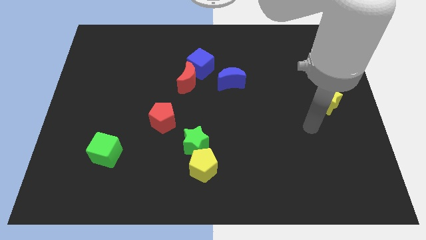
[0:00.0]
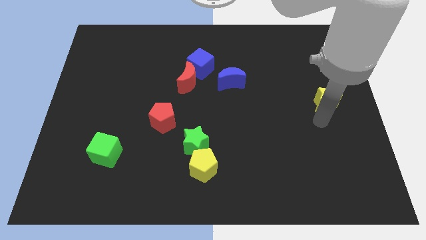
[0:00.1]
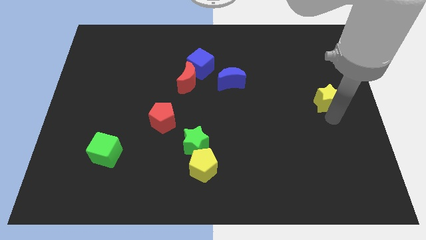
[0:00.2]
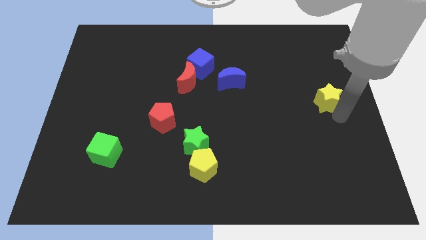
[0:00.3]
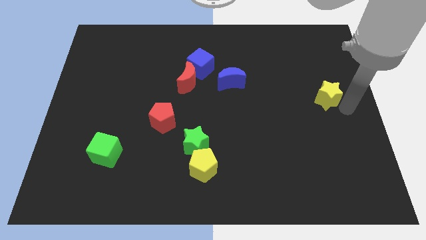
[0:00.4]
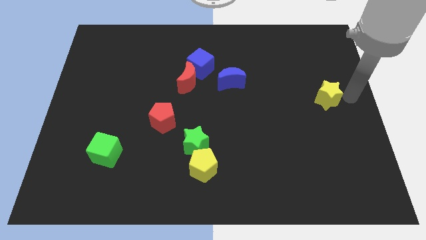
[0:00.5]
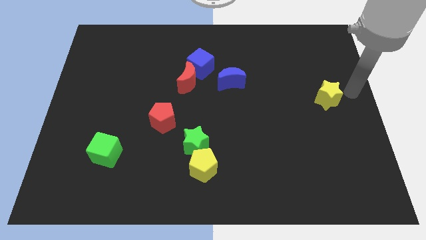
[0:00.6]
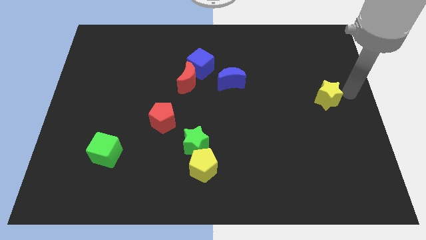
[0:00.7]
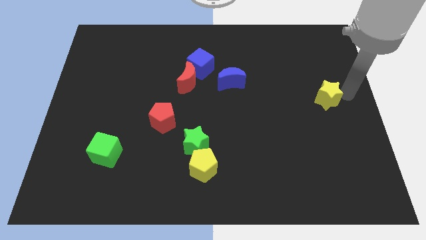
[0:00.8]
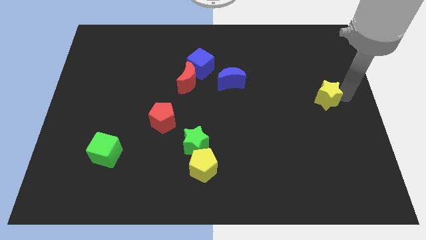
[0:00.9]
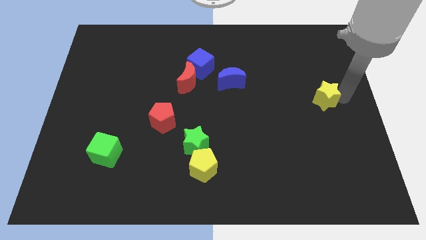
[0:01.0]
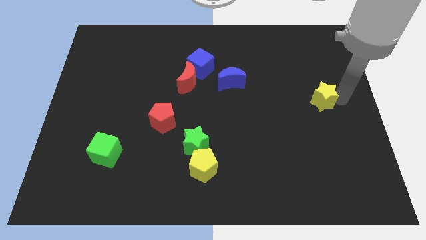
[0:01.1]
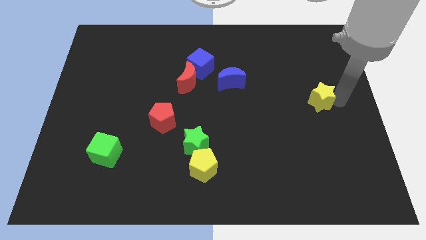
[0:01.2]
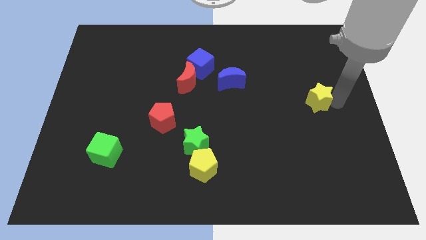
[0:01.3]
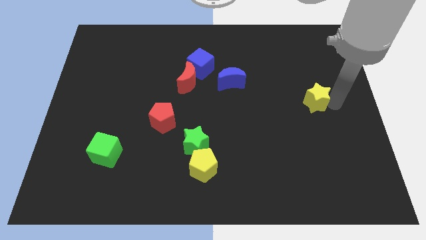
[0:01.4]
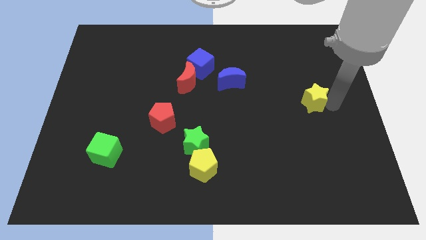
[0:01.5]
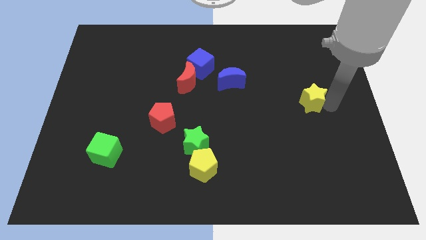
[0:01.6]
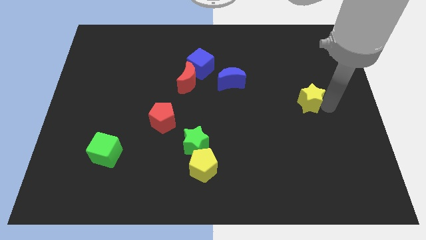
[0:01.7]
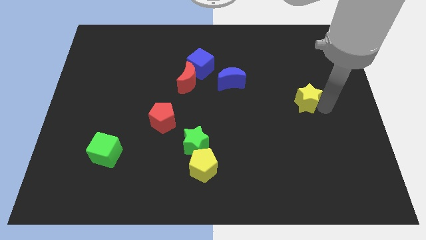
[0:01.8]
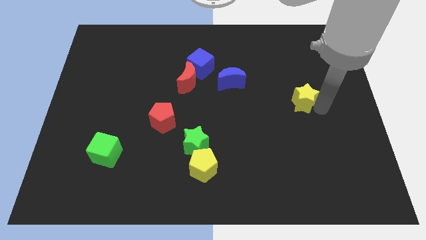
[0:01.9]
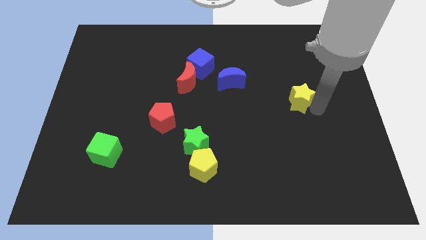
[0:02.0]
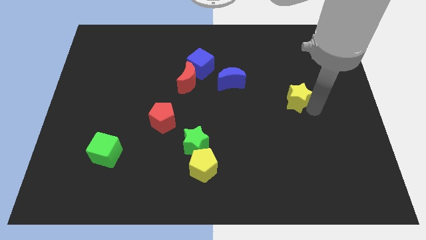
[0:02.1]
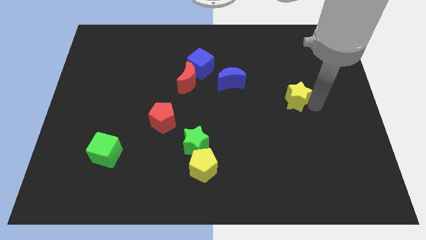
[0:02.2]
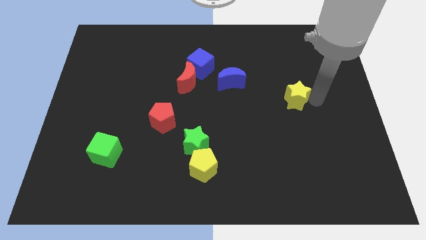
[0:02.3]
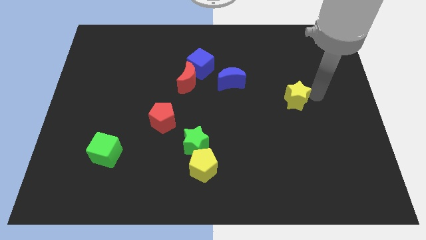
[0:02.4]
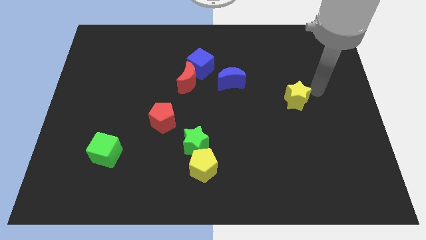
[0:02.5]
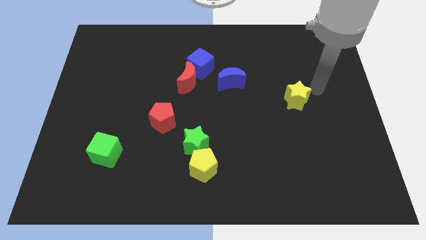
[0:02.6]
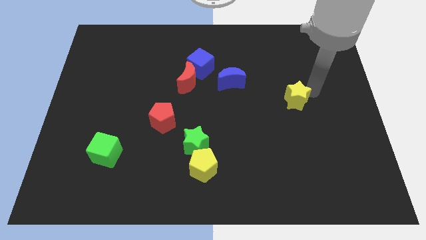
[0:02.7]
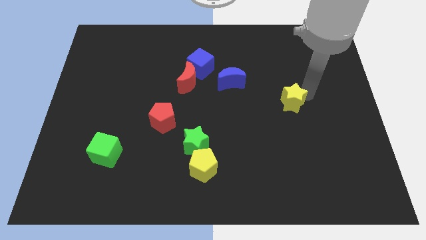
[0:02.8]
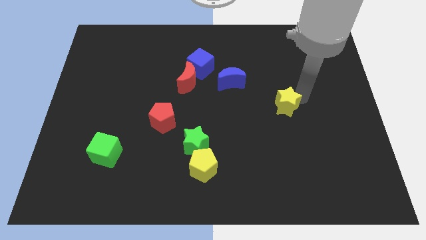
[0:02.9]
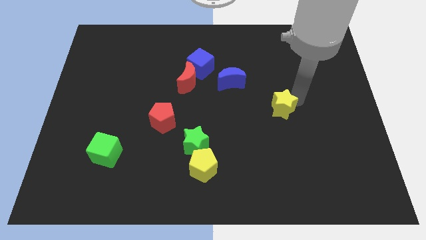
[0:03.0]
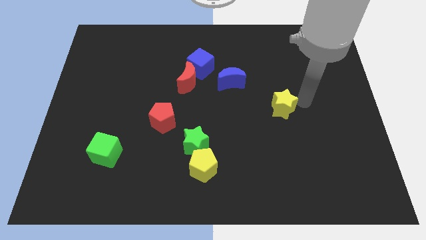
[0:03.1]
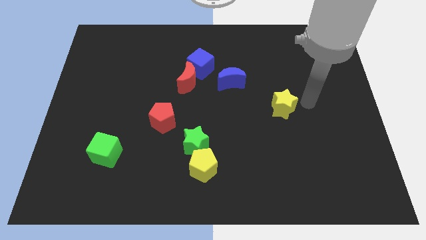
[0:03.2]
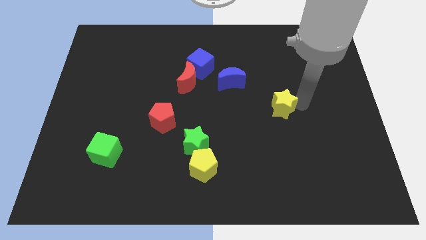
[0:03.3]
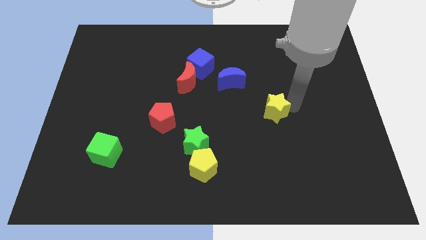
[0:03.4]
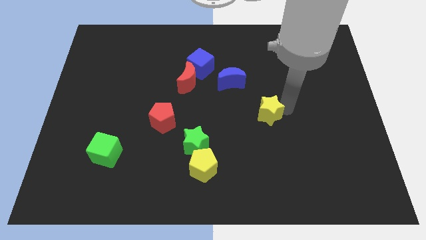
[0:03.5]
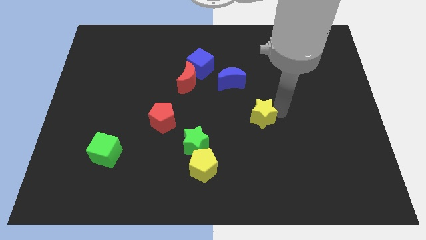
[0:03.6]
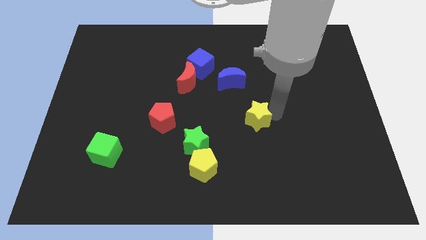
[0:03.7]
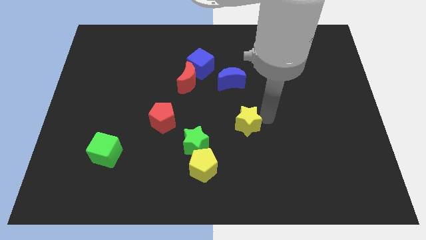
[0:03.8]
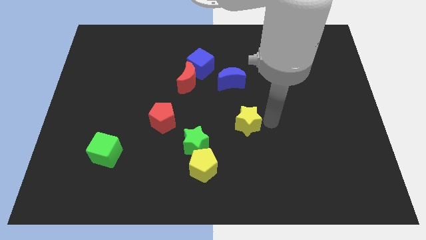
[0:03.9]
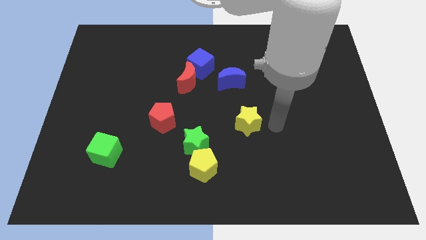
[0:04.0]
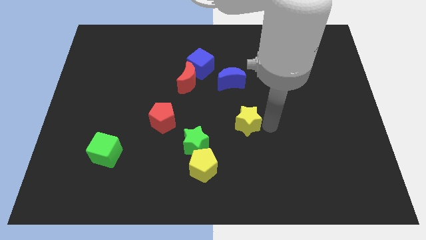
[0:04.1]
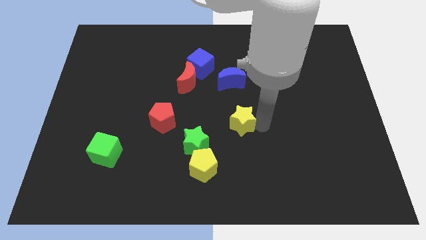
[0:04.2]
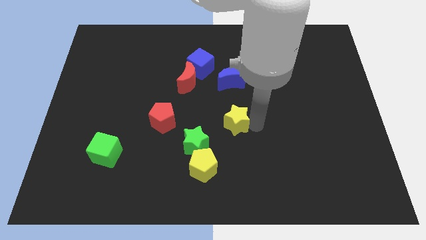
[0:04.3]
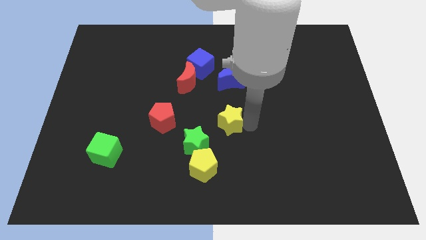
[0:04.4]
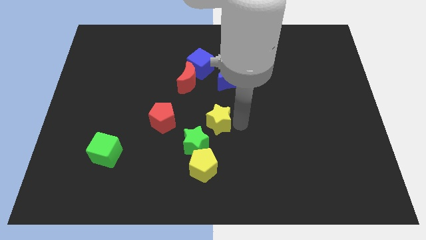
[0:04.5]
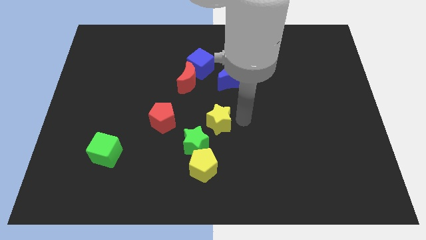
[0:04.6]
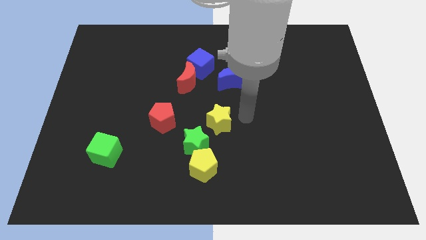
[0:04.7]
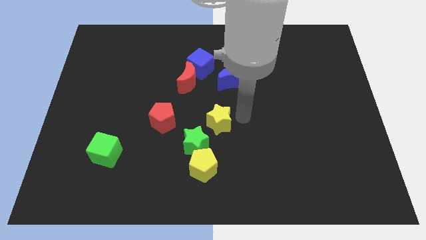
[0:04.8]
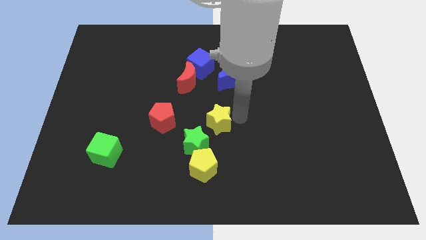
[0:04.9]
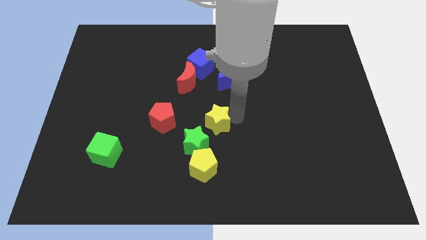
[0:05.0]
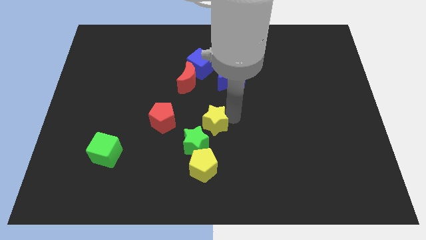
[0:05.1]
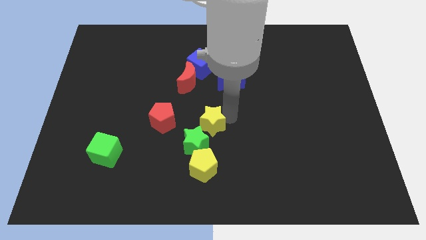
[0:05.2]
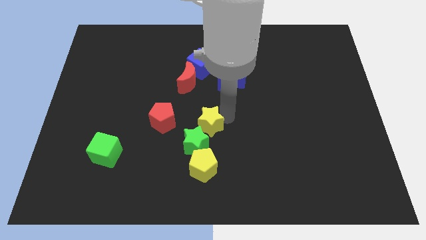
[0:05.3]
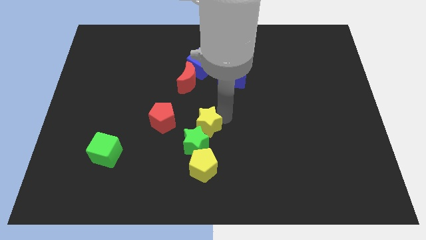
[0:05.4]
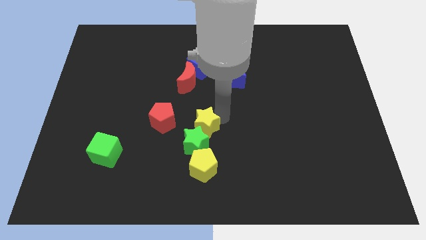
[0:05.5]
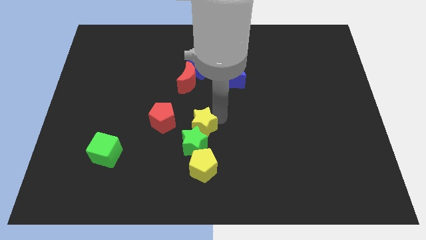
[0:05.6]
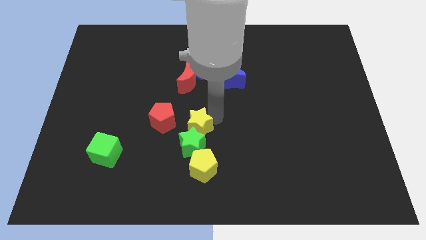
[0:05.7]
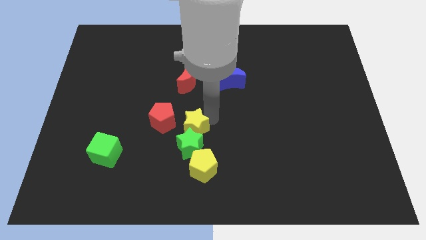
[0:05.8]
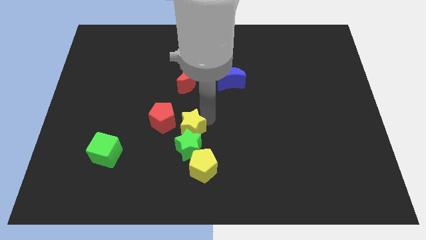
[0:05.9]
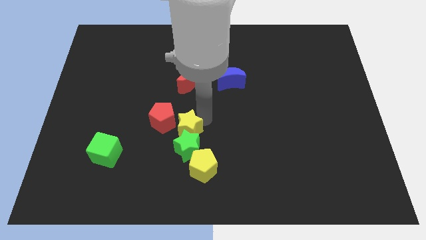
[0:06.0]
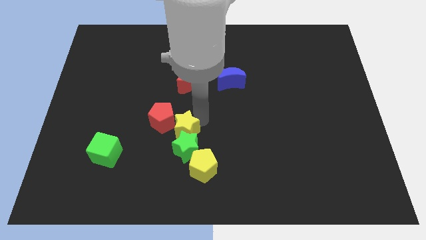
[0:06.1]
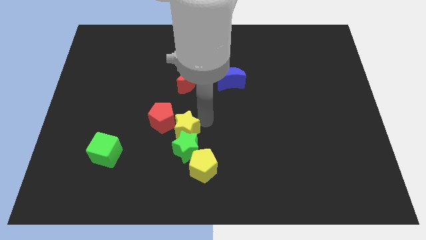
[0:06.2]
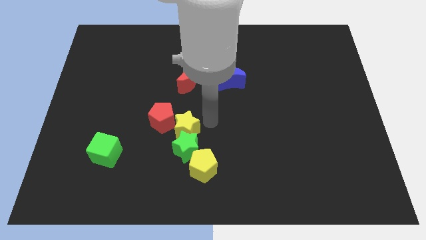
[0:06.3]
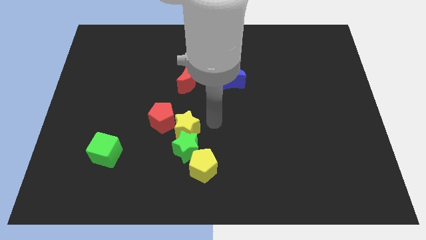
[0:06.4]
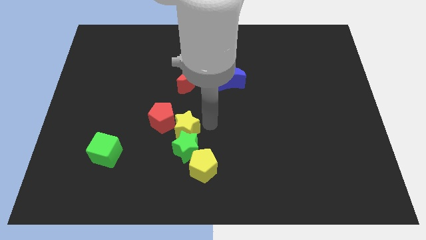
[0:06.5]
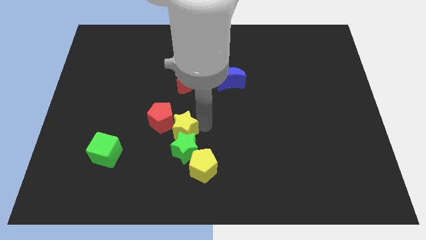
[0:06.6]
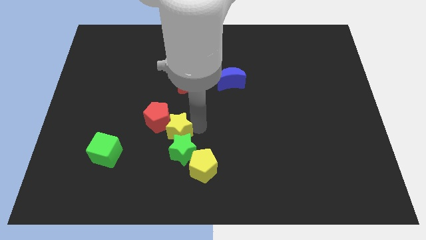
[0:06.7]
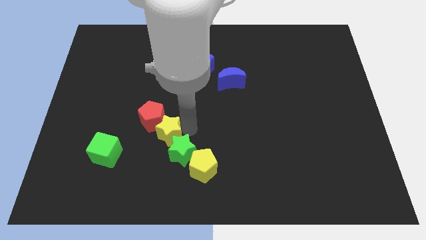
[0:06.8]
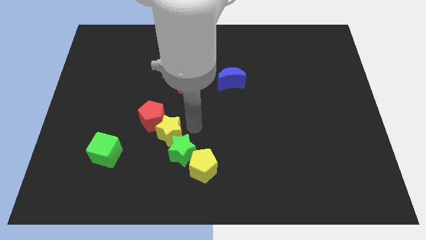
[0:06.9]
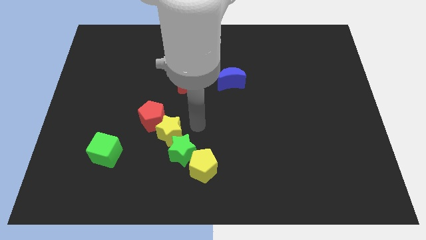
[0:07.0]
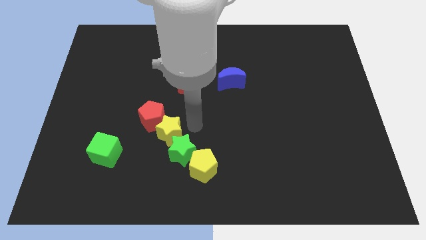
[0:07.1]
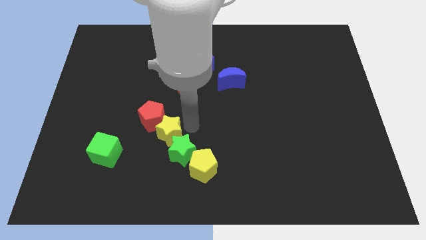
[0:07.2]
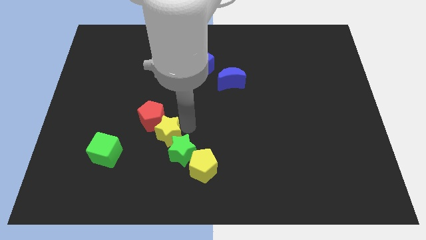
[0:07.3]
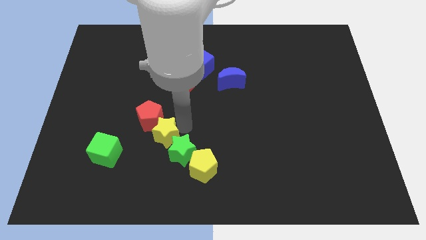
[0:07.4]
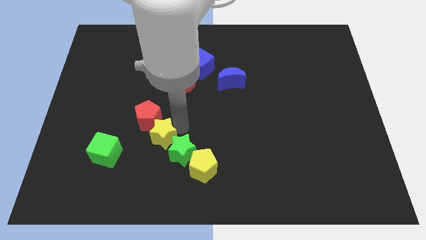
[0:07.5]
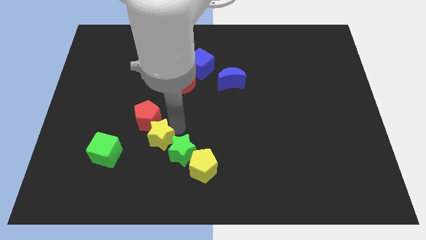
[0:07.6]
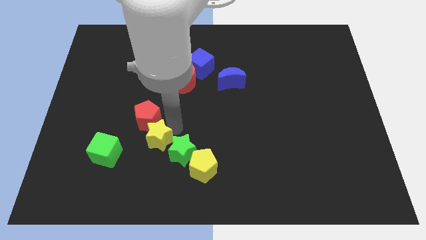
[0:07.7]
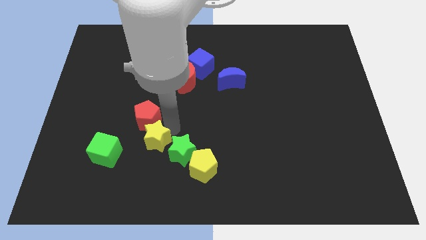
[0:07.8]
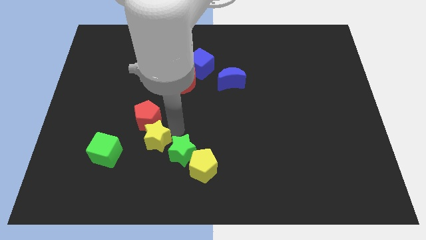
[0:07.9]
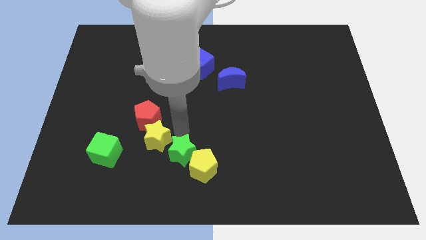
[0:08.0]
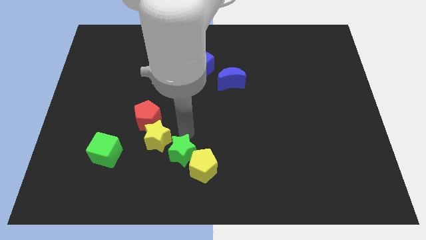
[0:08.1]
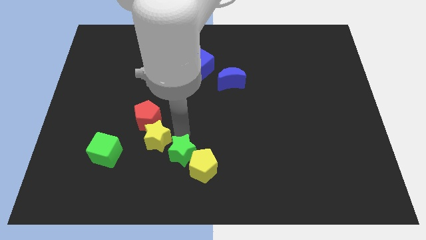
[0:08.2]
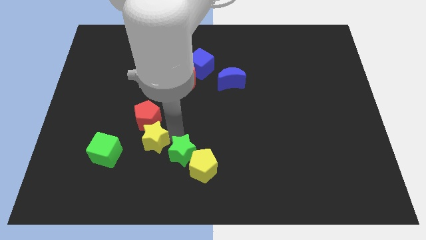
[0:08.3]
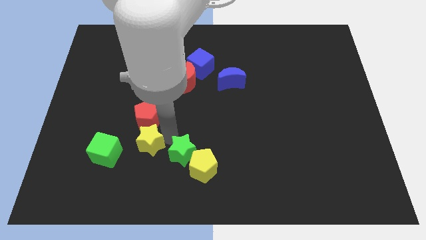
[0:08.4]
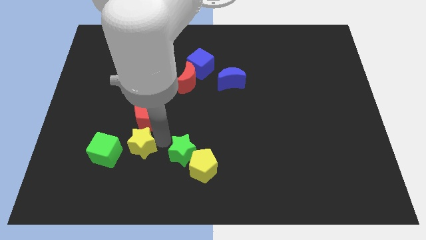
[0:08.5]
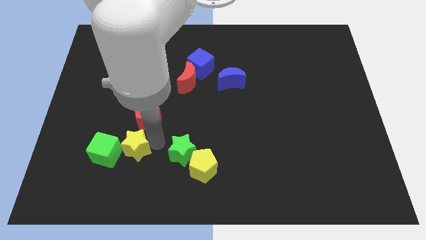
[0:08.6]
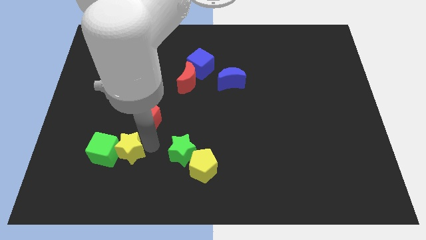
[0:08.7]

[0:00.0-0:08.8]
move the yellow star next to the green cube
